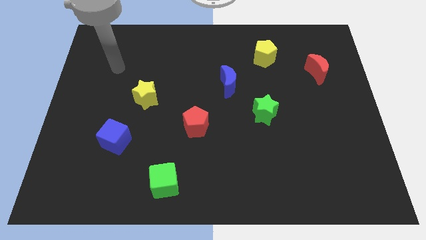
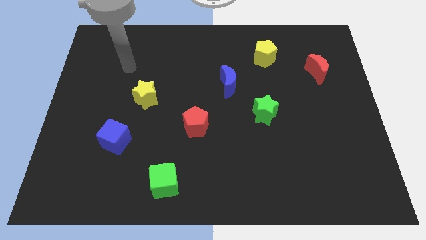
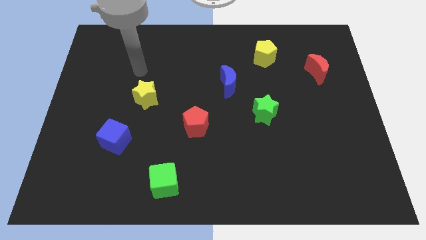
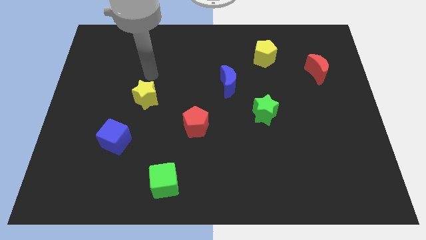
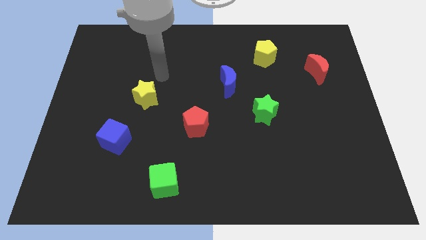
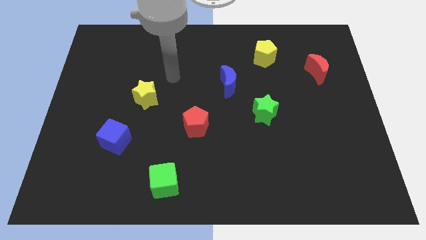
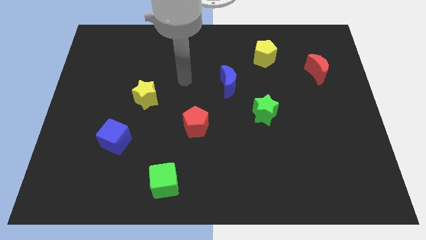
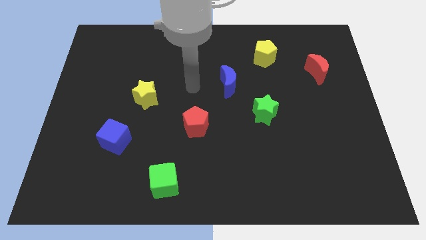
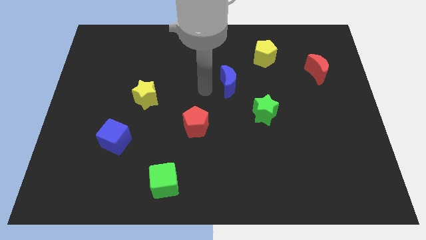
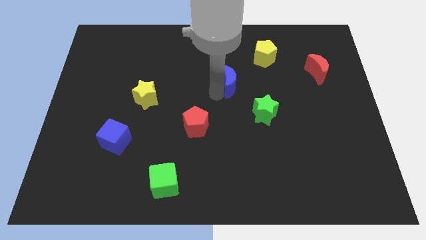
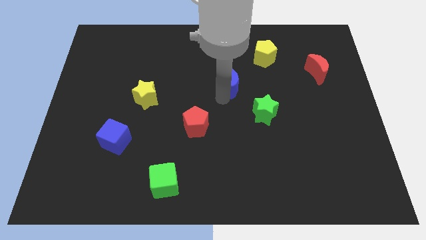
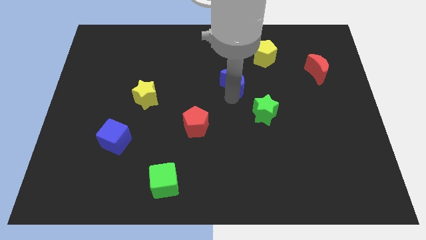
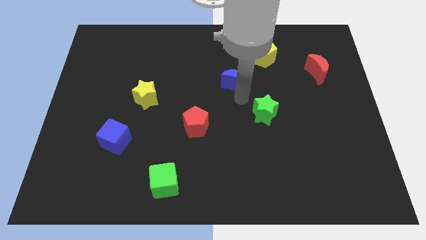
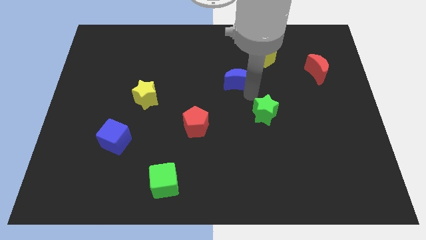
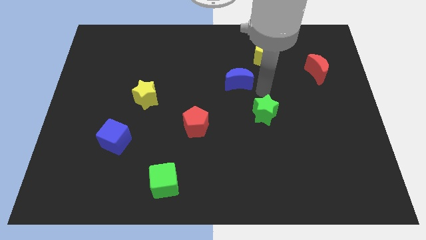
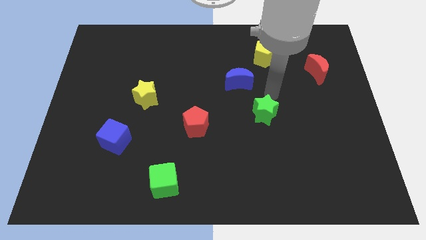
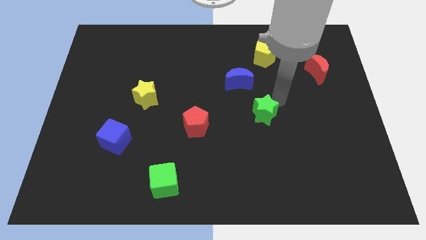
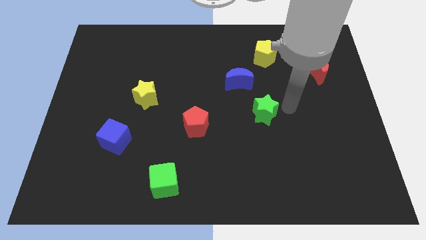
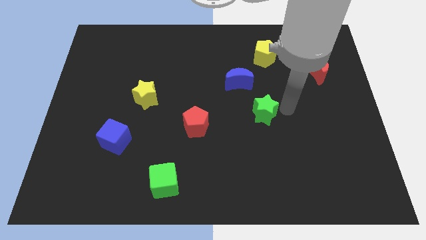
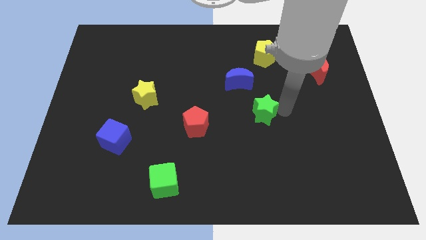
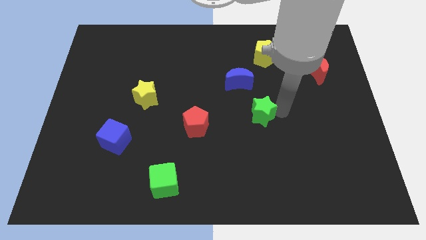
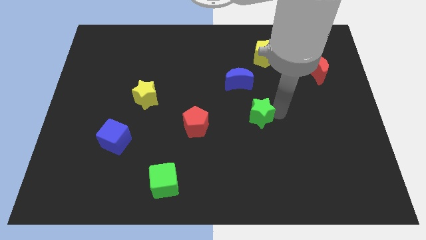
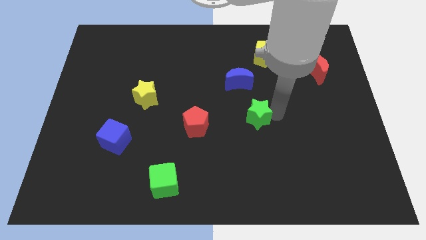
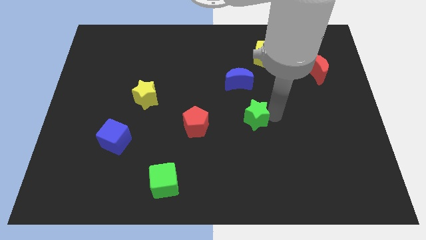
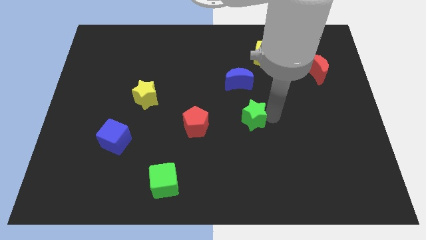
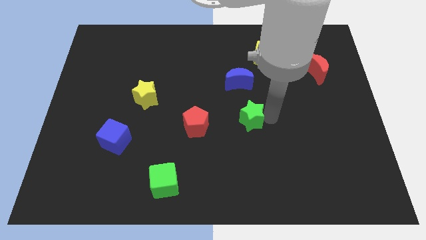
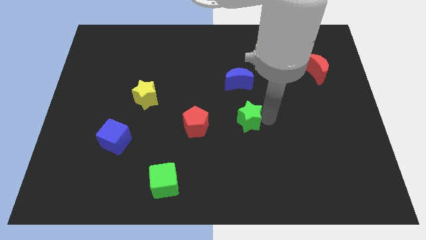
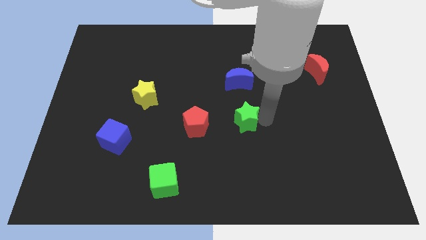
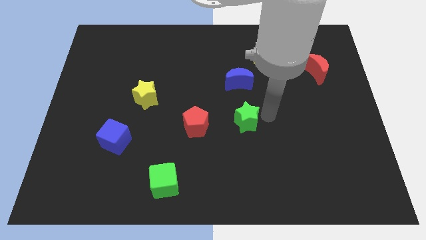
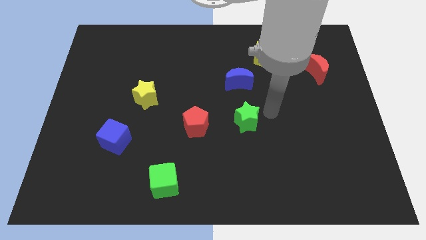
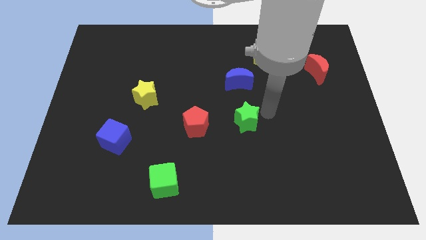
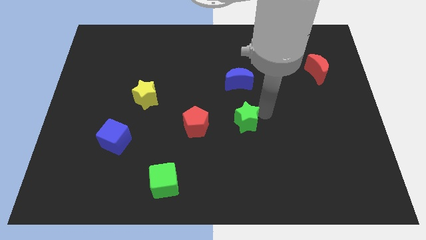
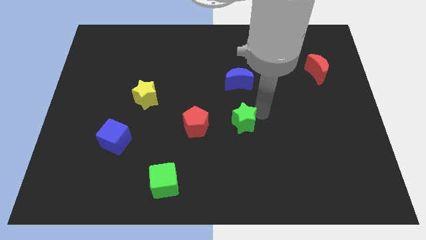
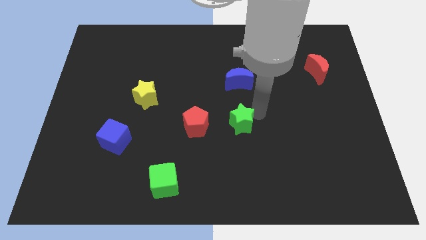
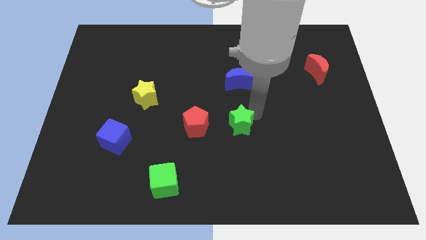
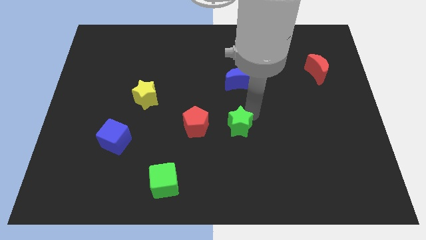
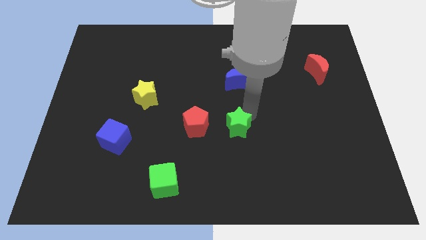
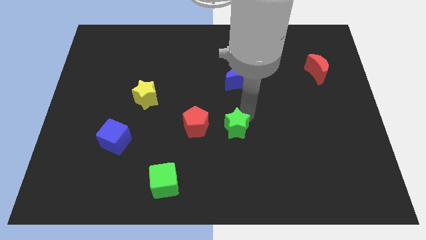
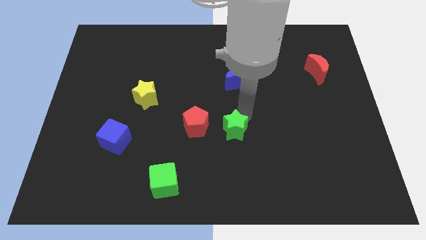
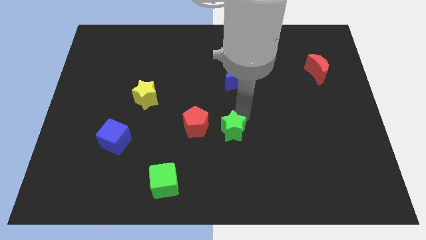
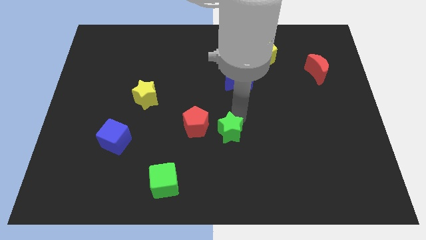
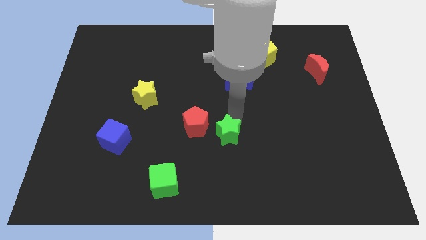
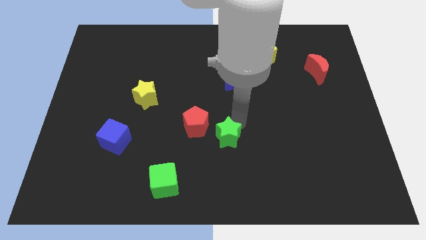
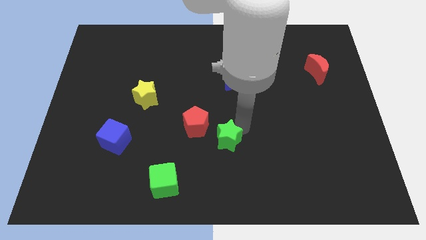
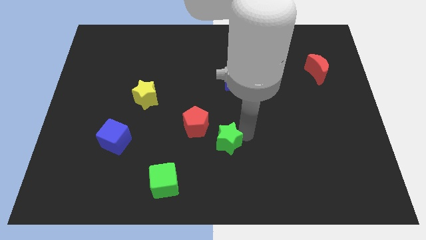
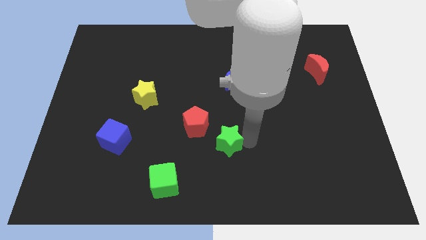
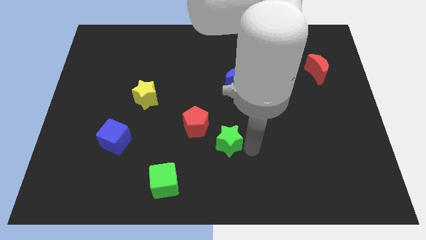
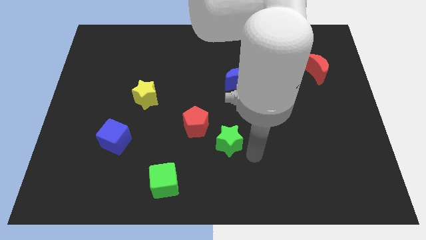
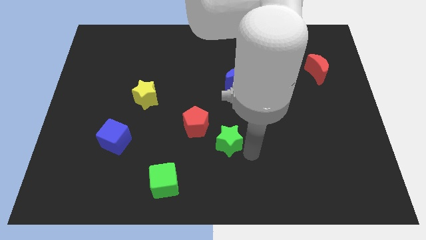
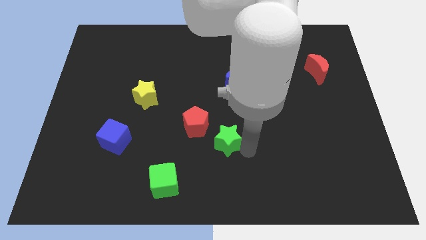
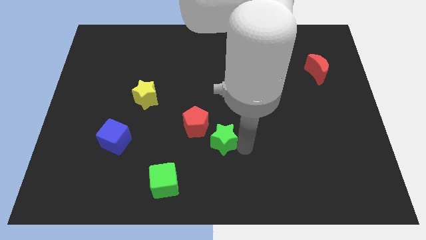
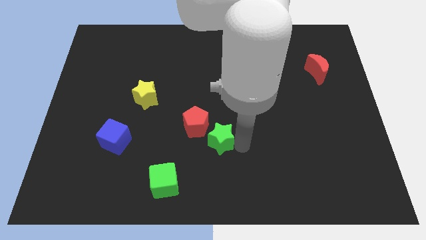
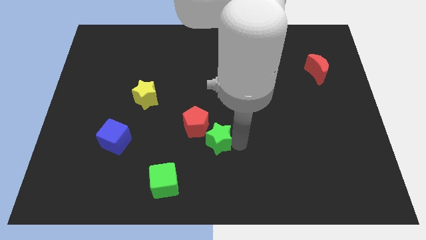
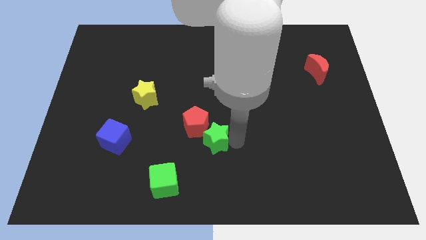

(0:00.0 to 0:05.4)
move the green star to the red pentagon

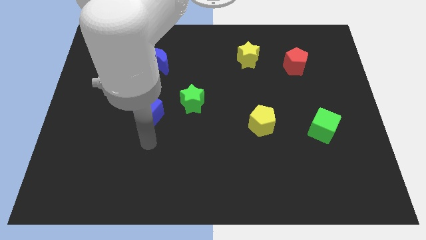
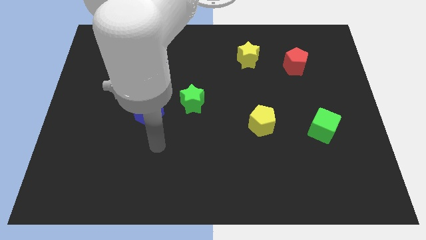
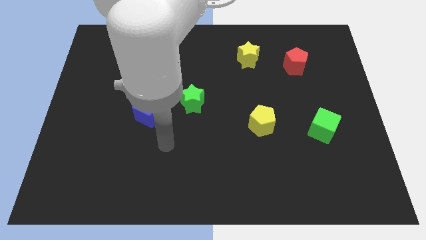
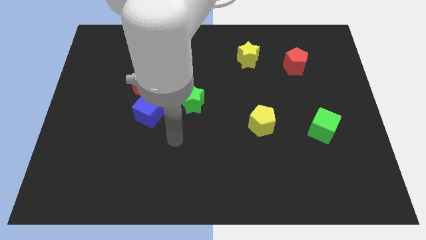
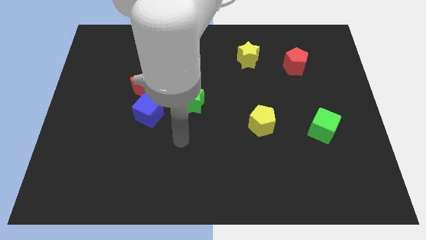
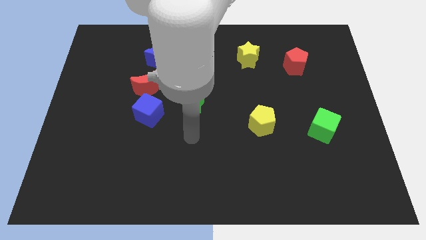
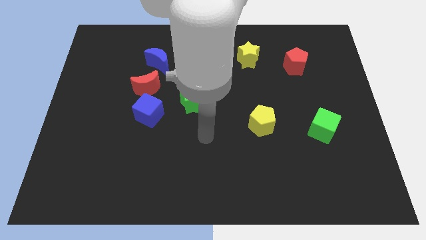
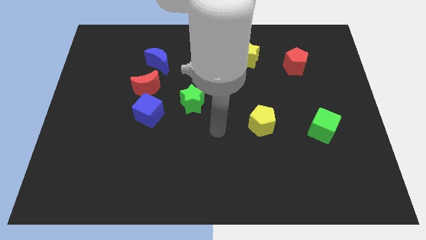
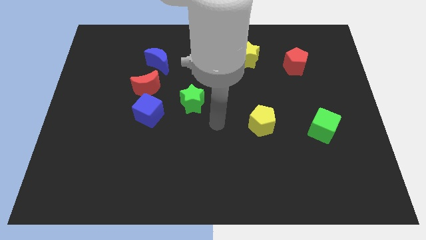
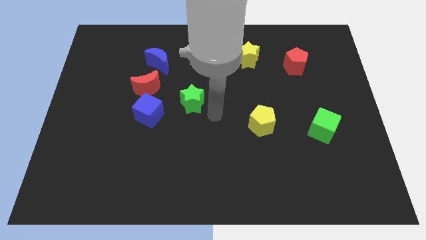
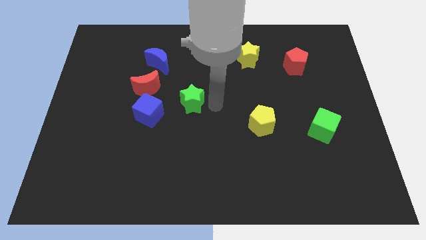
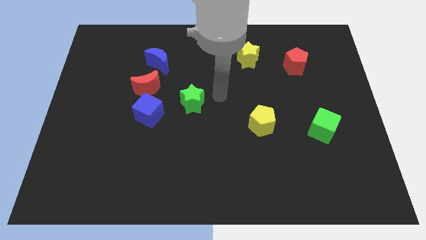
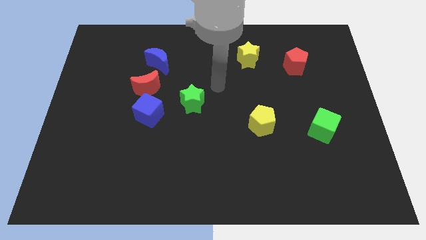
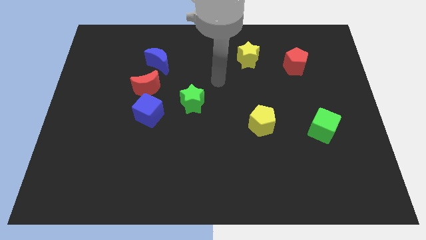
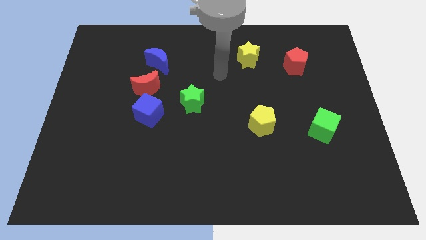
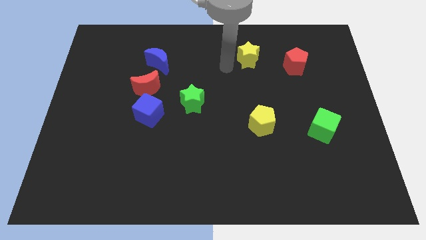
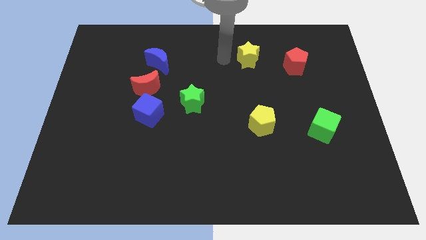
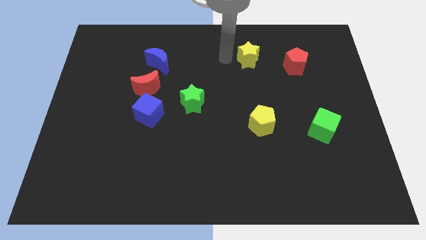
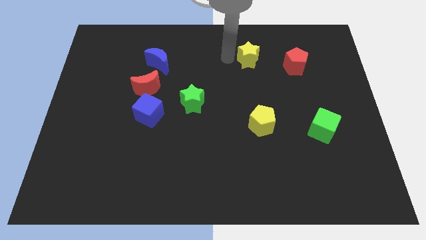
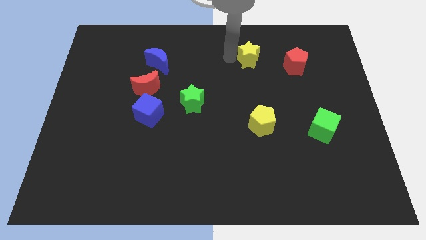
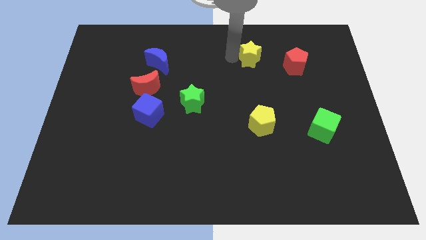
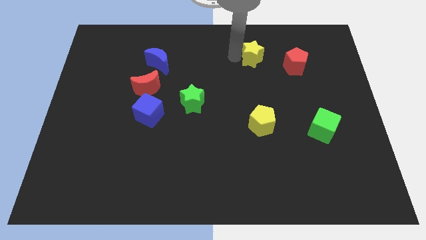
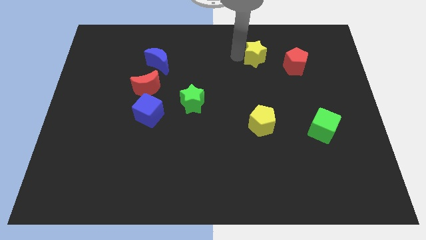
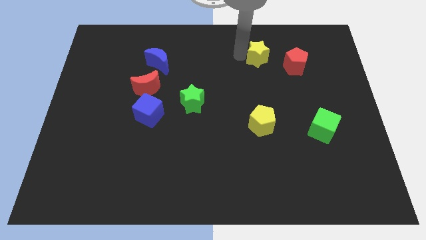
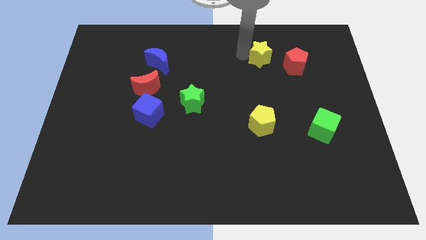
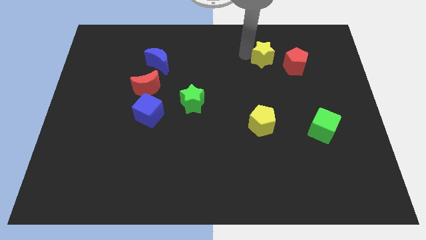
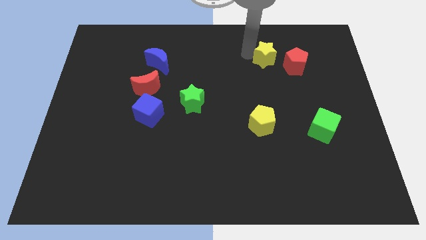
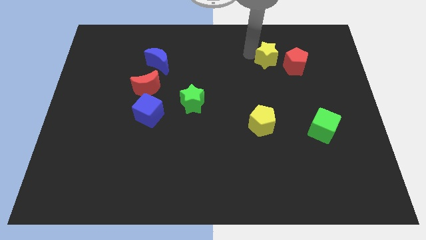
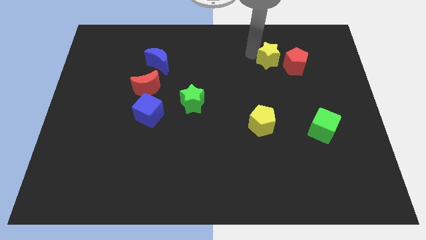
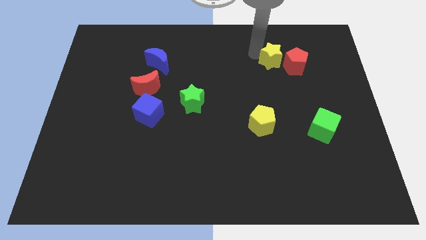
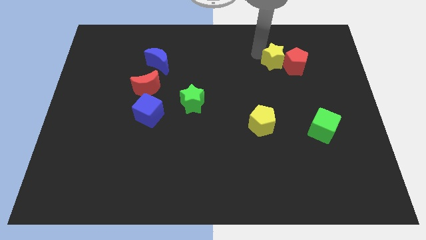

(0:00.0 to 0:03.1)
put the yellow star next to the red pentagon
